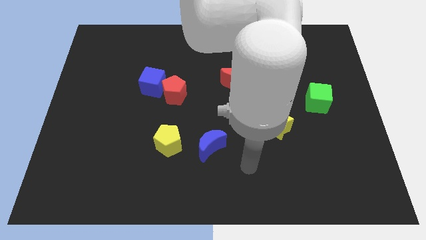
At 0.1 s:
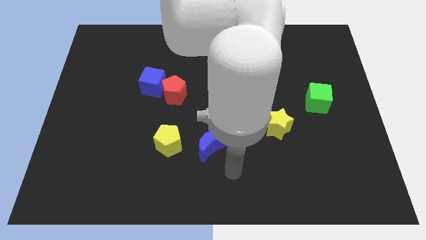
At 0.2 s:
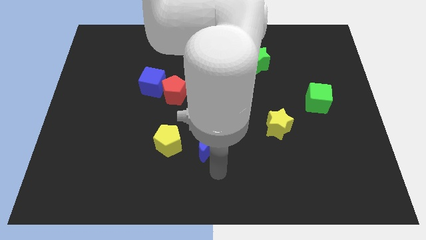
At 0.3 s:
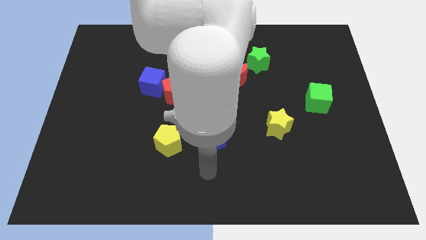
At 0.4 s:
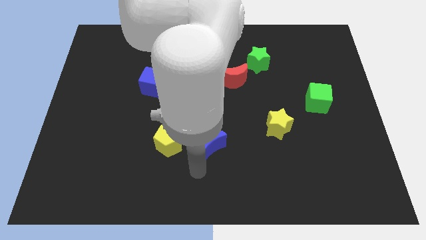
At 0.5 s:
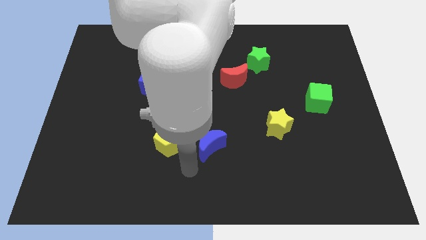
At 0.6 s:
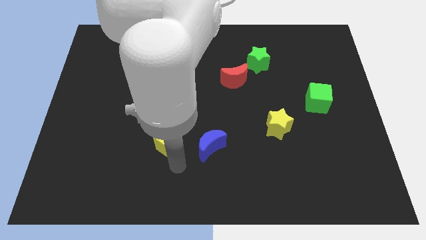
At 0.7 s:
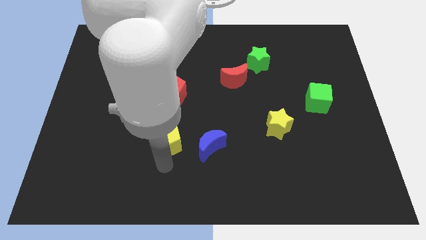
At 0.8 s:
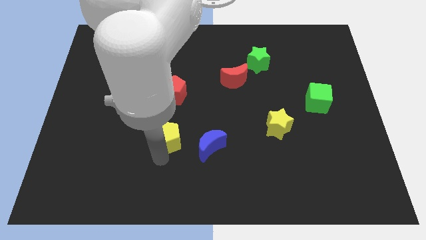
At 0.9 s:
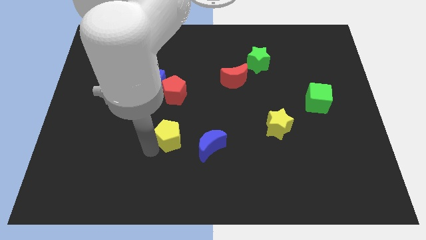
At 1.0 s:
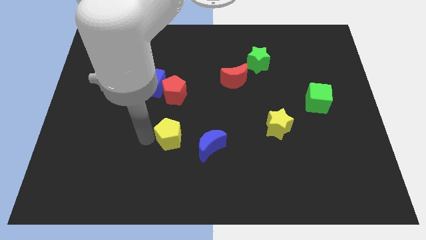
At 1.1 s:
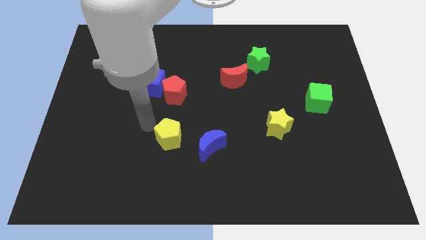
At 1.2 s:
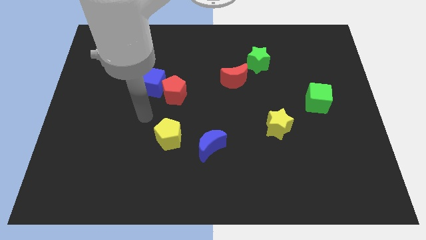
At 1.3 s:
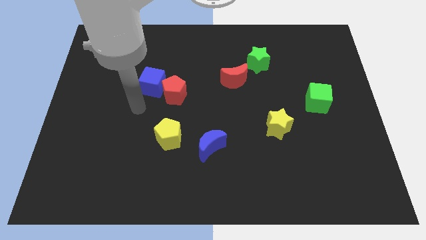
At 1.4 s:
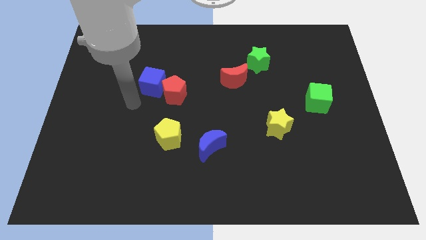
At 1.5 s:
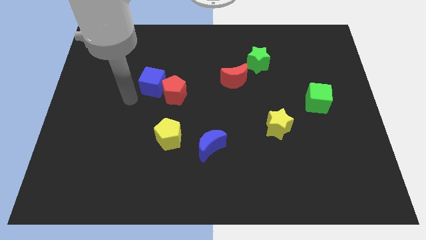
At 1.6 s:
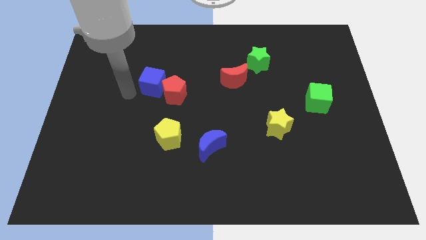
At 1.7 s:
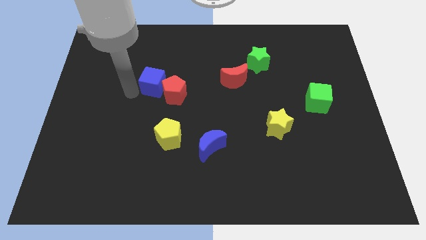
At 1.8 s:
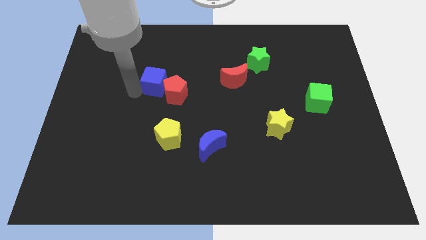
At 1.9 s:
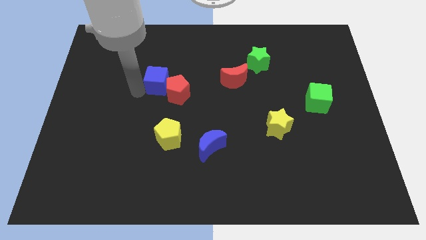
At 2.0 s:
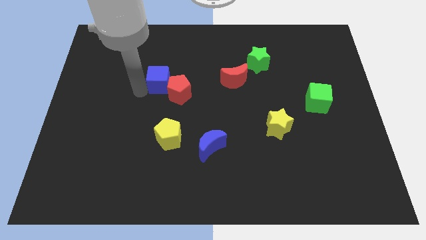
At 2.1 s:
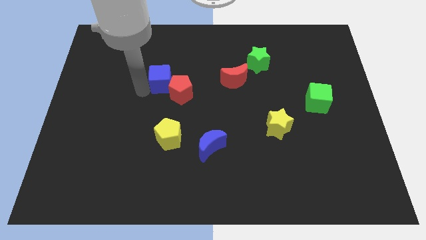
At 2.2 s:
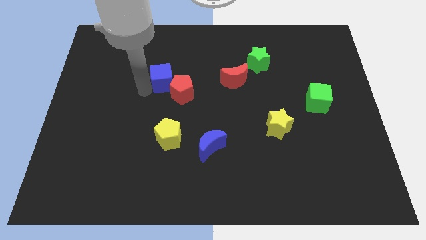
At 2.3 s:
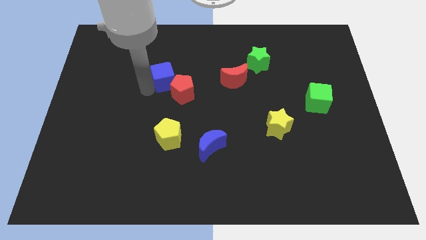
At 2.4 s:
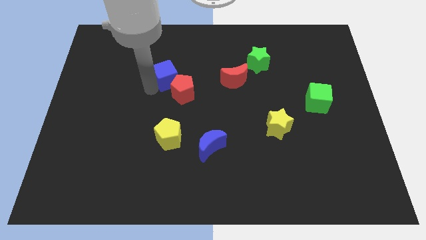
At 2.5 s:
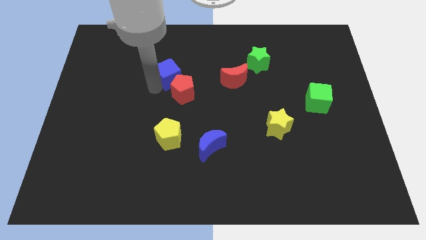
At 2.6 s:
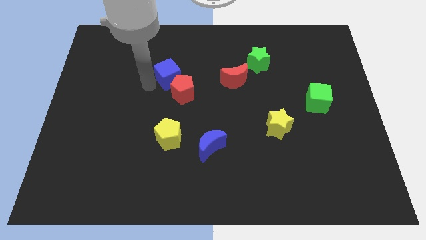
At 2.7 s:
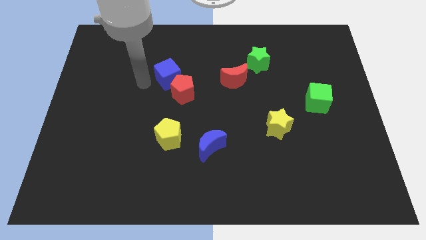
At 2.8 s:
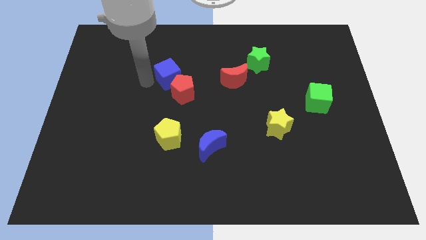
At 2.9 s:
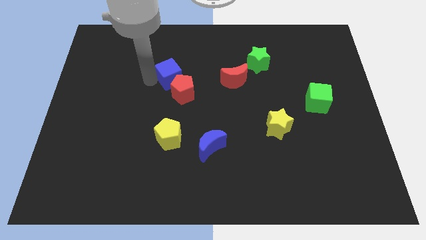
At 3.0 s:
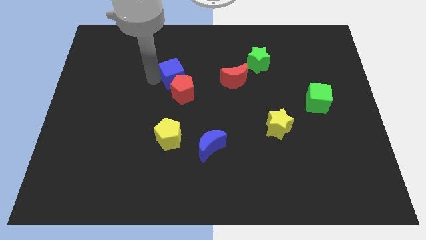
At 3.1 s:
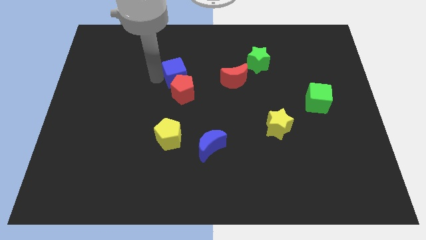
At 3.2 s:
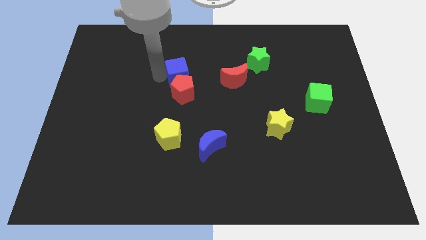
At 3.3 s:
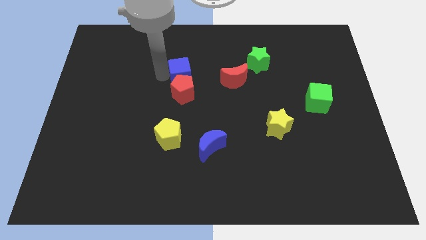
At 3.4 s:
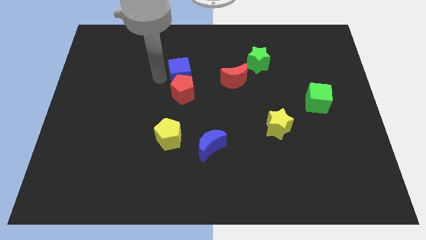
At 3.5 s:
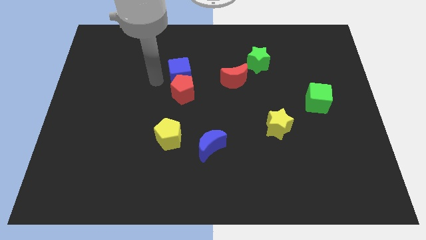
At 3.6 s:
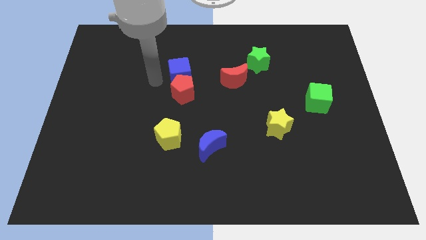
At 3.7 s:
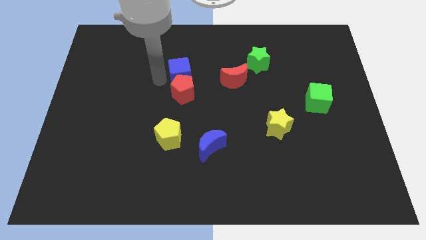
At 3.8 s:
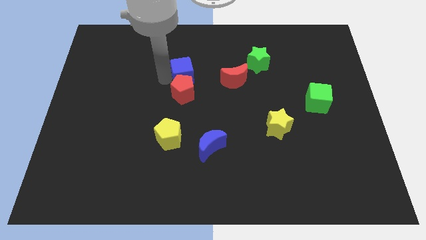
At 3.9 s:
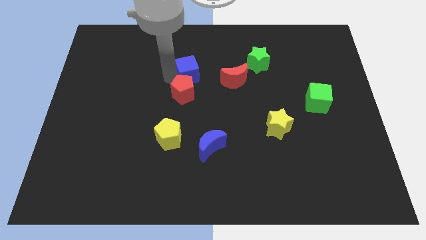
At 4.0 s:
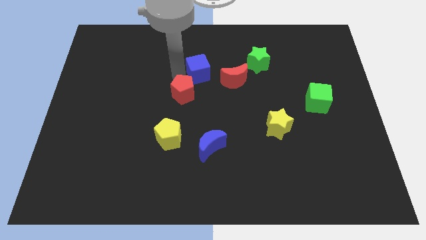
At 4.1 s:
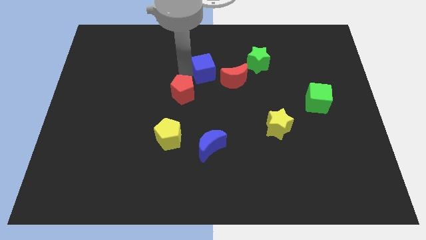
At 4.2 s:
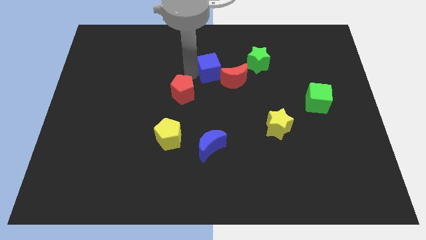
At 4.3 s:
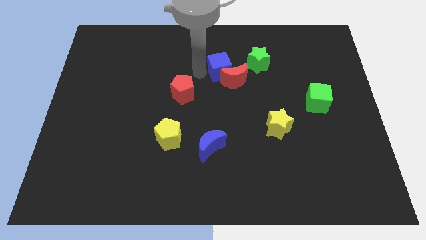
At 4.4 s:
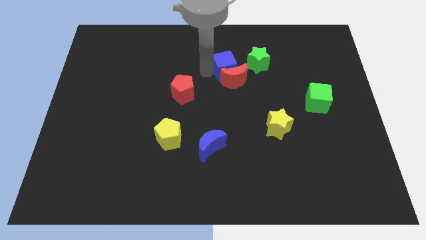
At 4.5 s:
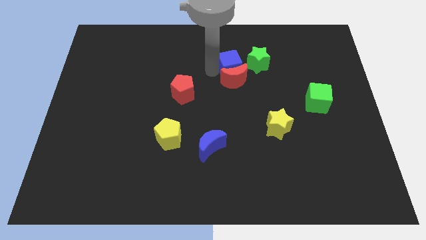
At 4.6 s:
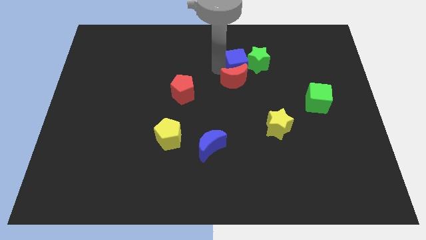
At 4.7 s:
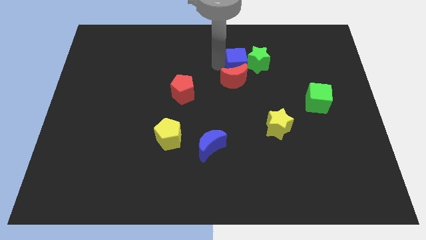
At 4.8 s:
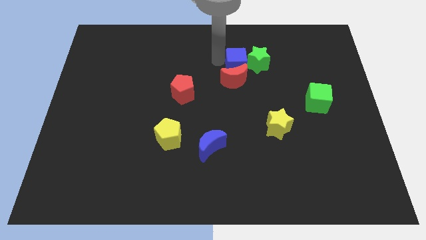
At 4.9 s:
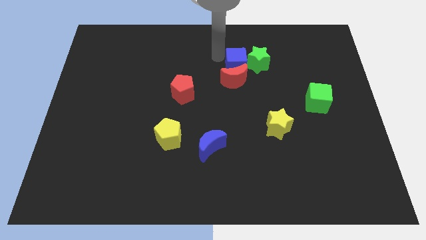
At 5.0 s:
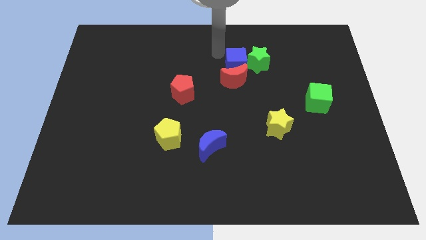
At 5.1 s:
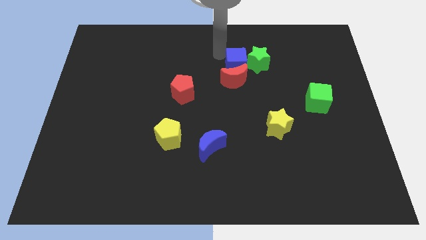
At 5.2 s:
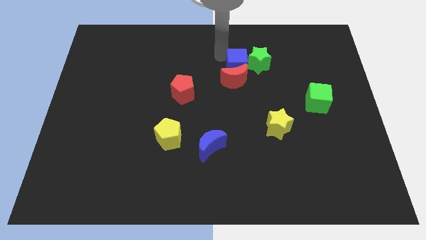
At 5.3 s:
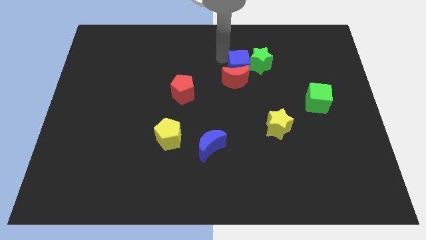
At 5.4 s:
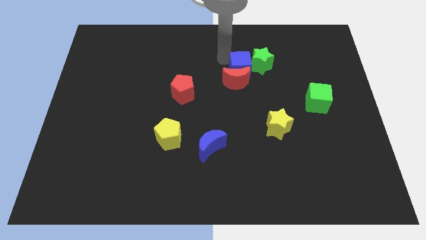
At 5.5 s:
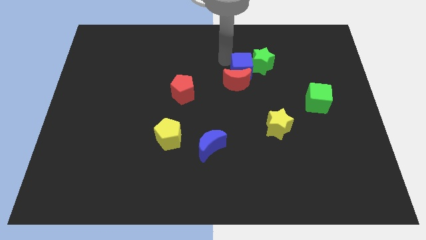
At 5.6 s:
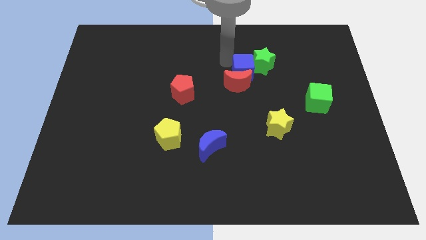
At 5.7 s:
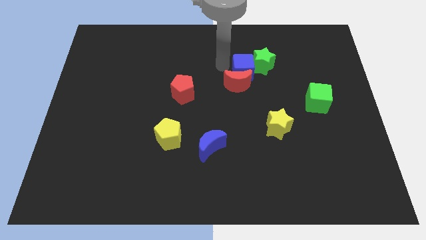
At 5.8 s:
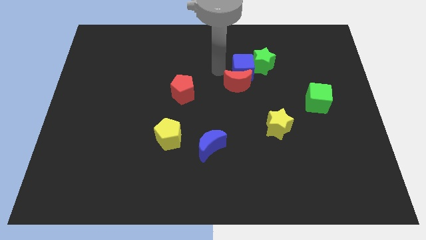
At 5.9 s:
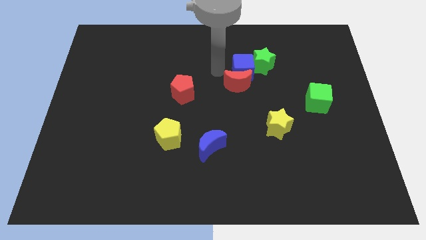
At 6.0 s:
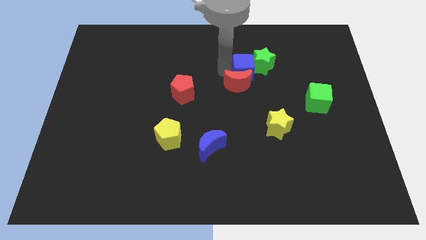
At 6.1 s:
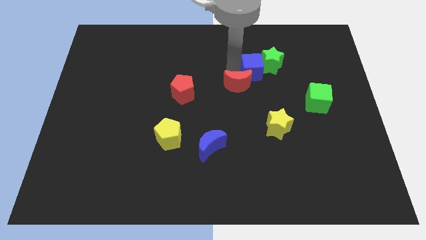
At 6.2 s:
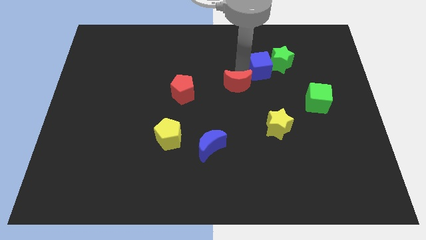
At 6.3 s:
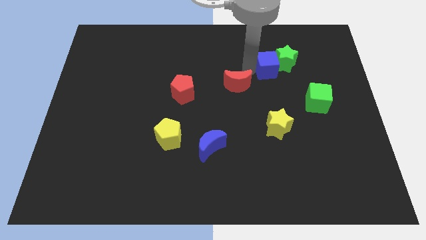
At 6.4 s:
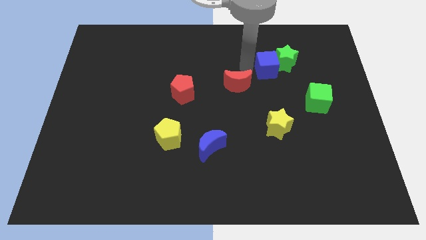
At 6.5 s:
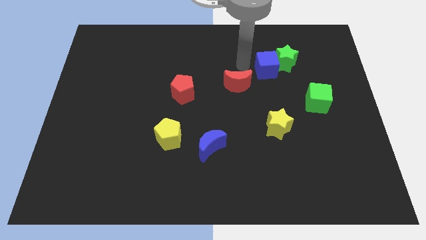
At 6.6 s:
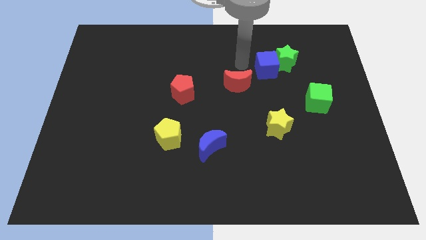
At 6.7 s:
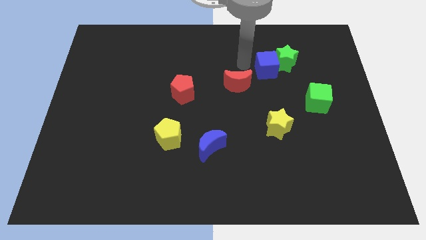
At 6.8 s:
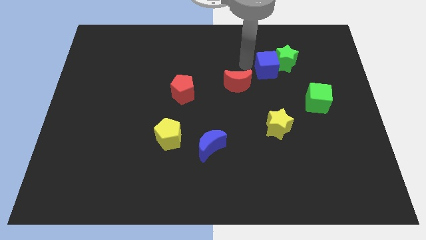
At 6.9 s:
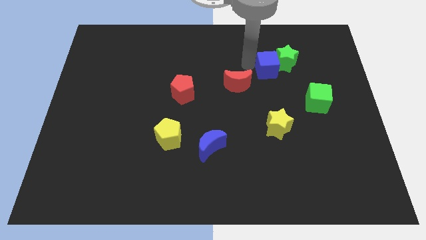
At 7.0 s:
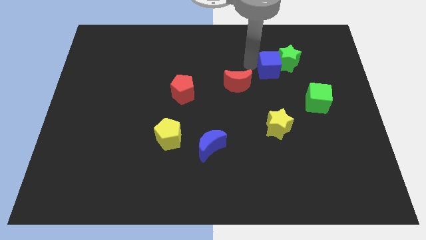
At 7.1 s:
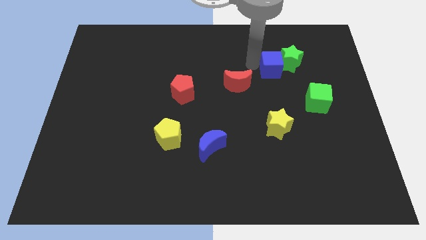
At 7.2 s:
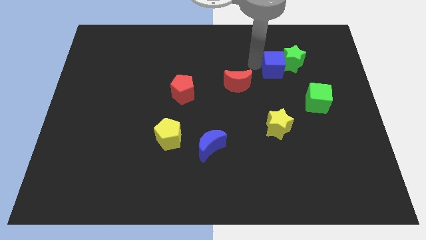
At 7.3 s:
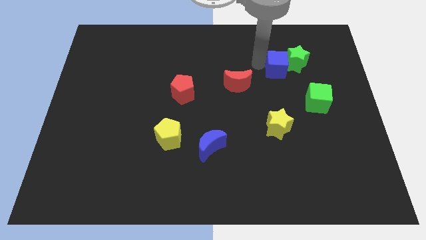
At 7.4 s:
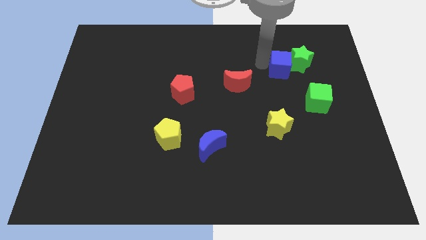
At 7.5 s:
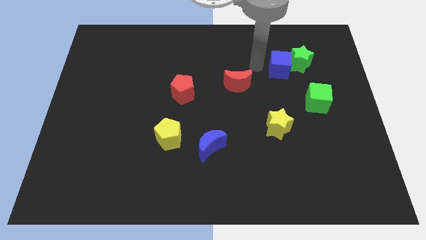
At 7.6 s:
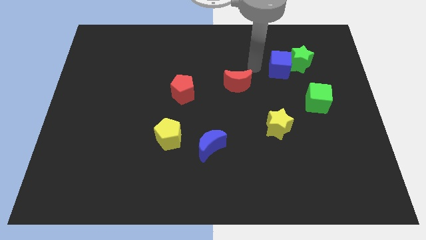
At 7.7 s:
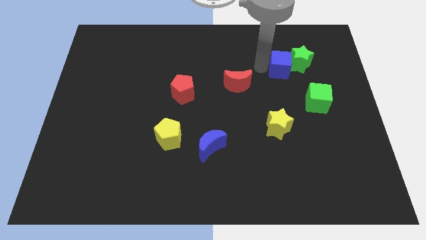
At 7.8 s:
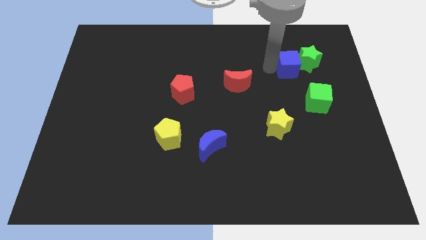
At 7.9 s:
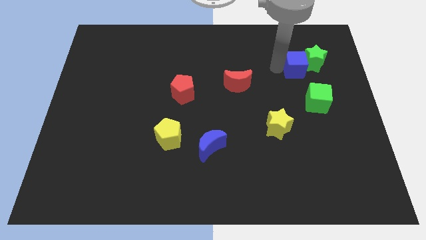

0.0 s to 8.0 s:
move the blue cube above the green cube
